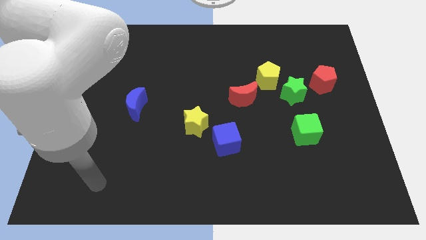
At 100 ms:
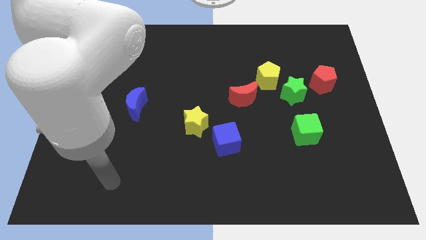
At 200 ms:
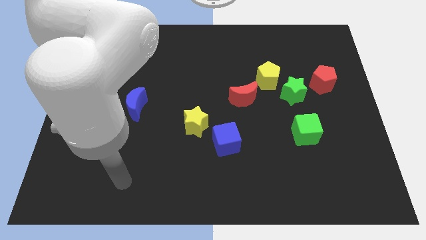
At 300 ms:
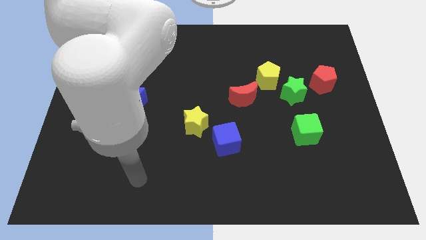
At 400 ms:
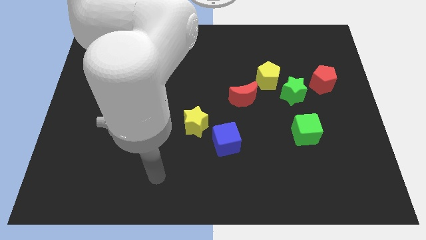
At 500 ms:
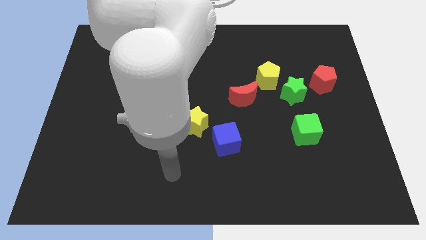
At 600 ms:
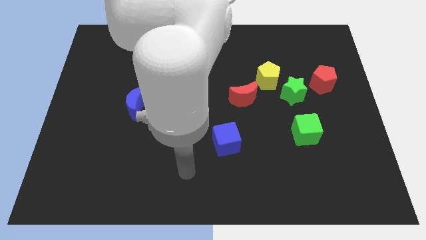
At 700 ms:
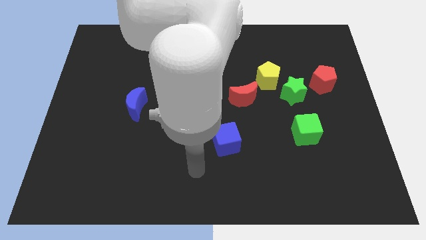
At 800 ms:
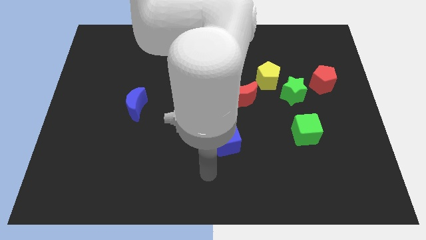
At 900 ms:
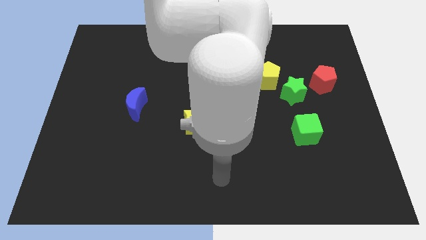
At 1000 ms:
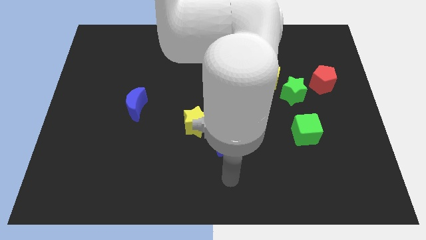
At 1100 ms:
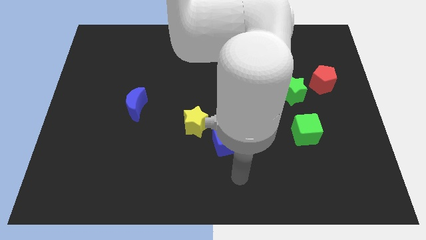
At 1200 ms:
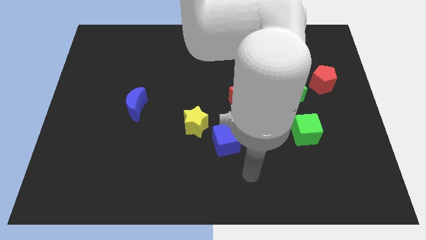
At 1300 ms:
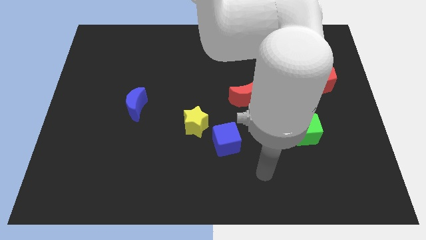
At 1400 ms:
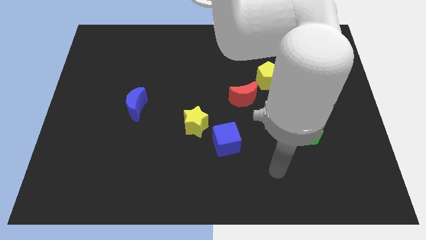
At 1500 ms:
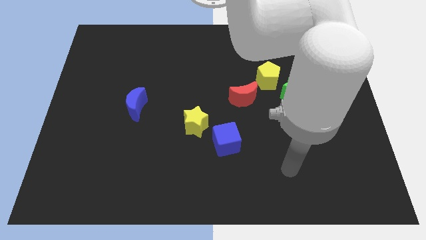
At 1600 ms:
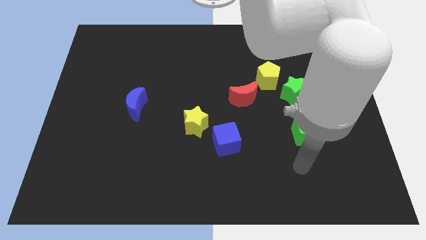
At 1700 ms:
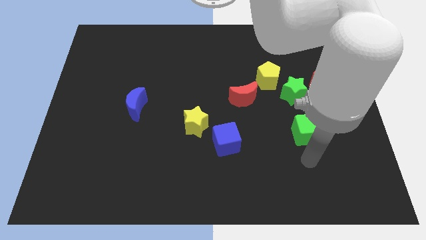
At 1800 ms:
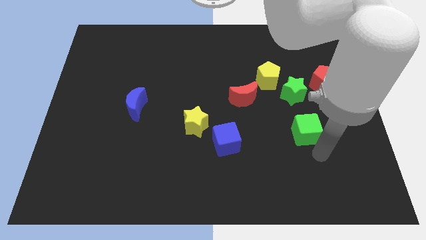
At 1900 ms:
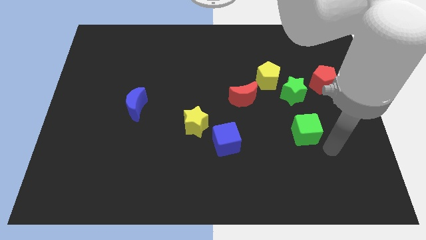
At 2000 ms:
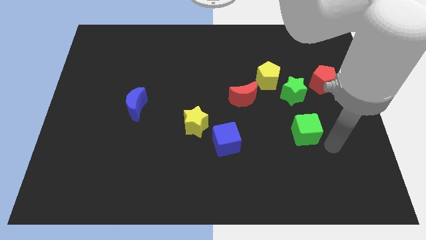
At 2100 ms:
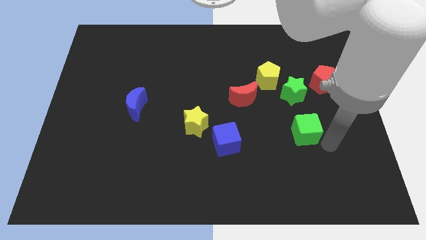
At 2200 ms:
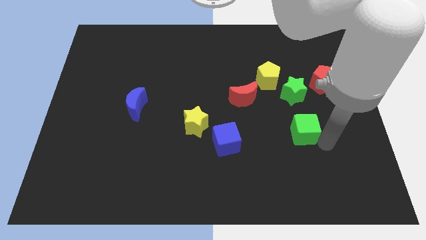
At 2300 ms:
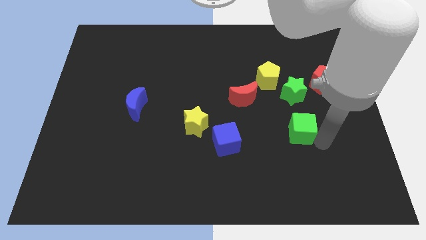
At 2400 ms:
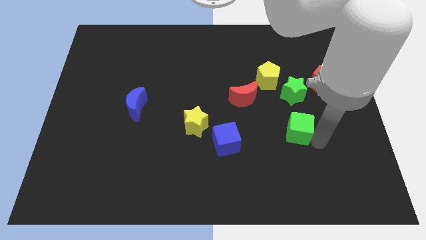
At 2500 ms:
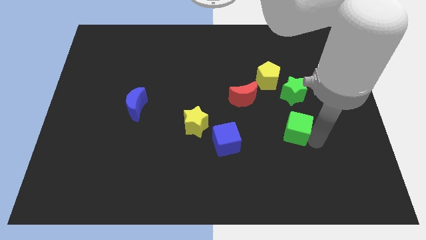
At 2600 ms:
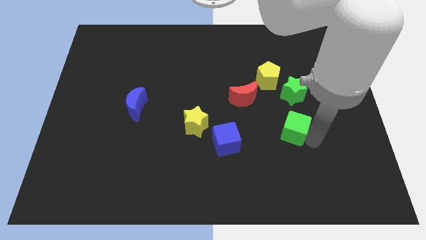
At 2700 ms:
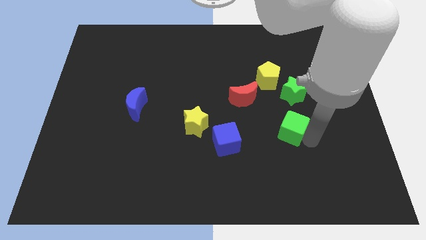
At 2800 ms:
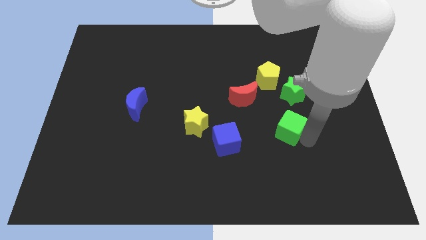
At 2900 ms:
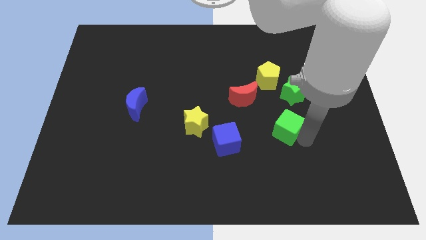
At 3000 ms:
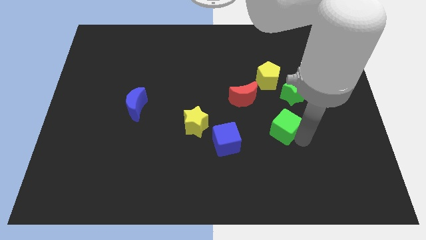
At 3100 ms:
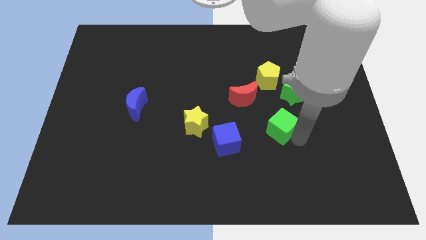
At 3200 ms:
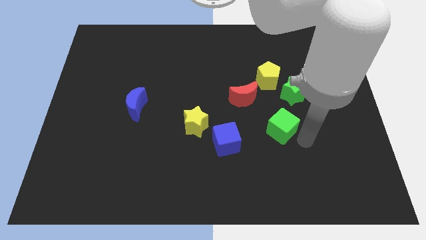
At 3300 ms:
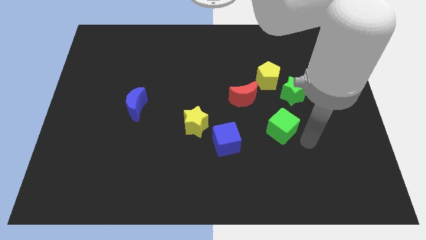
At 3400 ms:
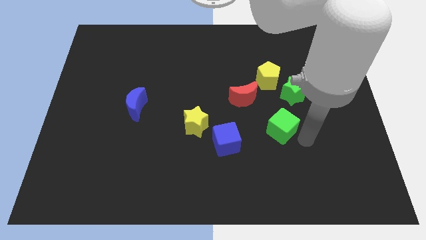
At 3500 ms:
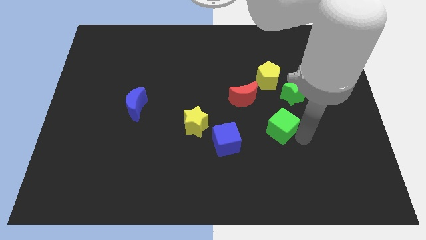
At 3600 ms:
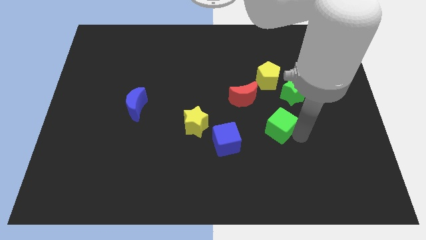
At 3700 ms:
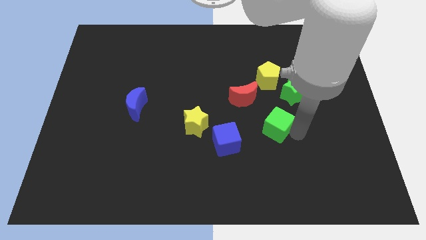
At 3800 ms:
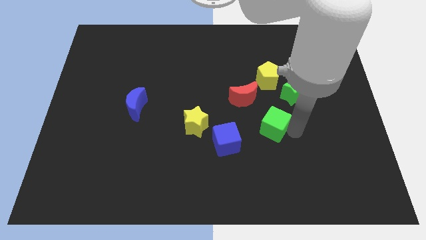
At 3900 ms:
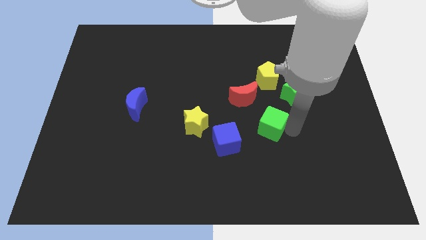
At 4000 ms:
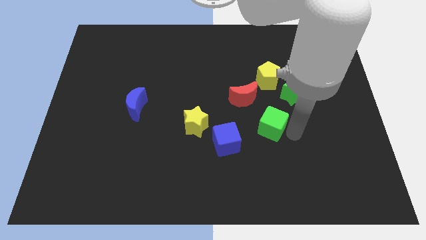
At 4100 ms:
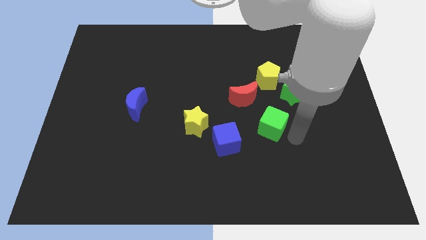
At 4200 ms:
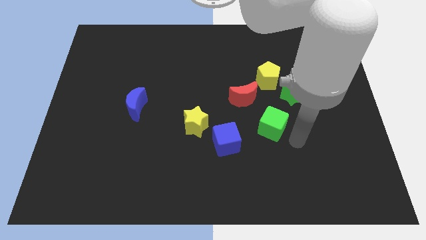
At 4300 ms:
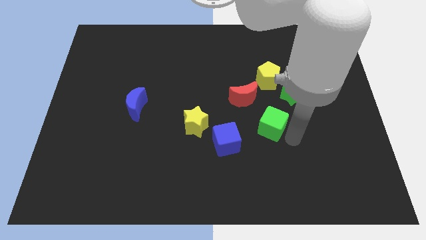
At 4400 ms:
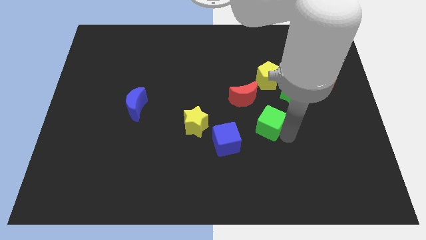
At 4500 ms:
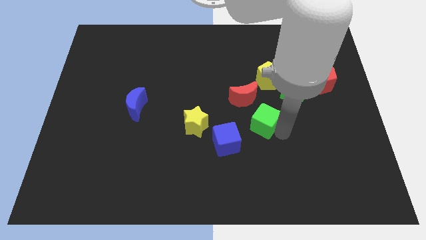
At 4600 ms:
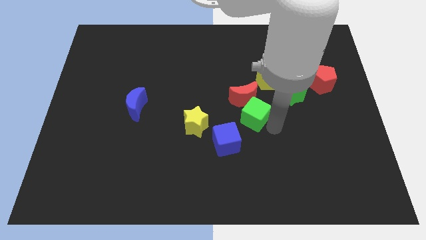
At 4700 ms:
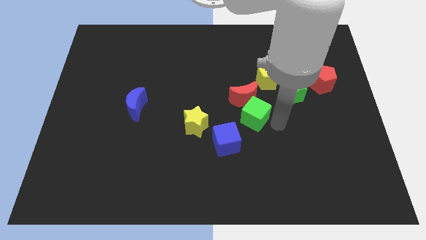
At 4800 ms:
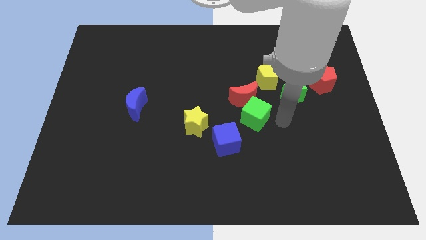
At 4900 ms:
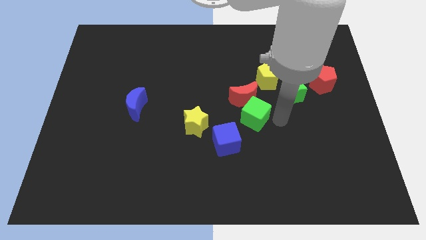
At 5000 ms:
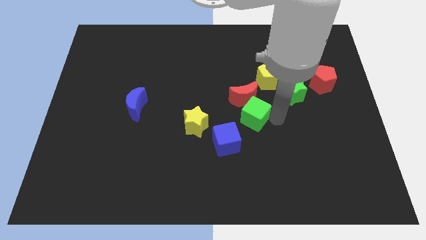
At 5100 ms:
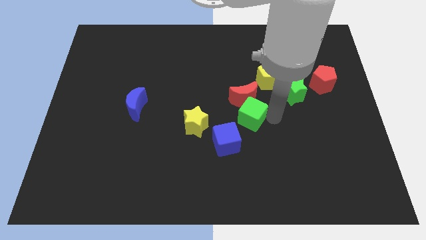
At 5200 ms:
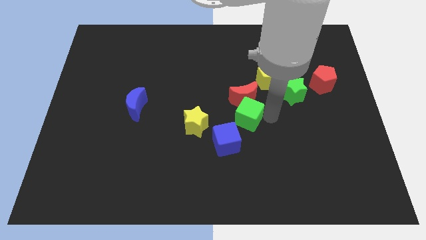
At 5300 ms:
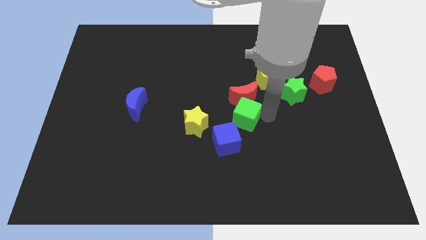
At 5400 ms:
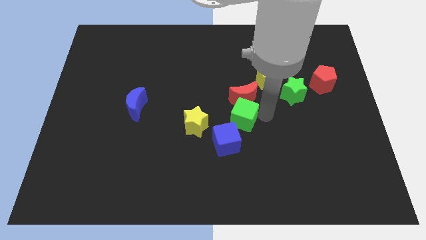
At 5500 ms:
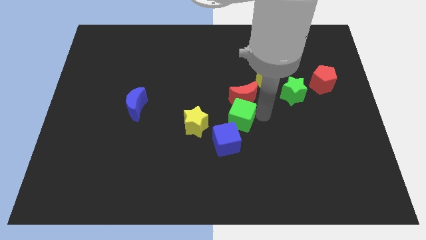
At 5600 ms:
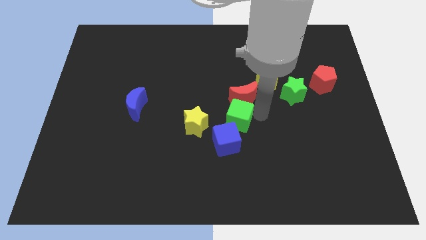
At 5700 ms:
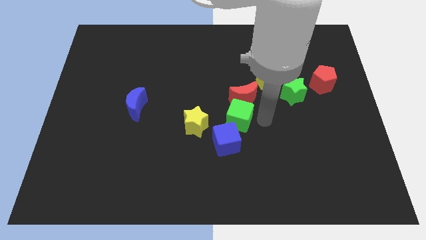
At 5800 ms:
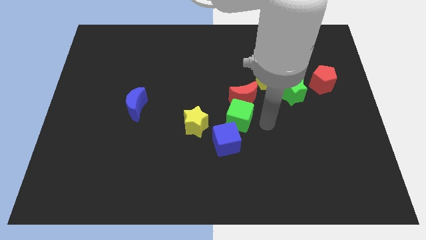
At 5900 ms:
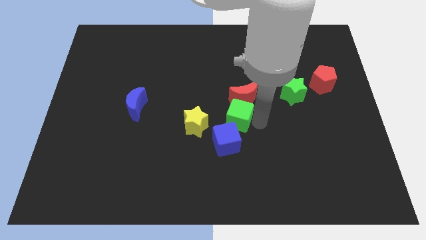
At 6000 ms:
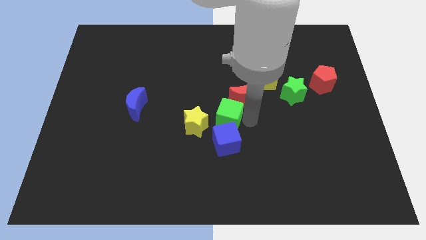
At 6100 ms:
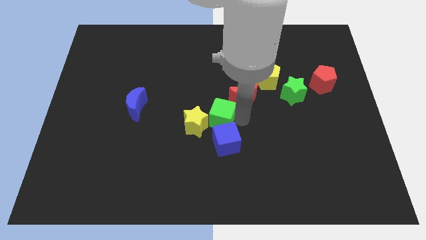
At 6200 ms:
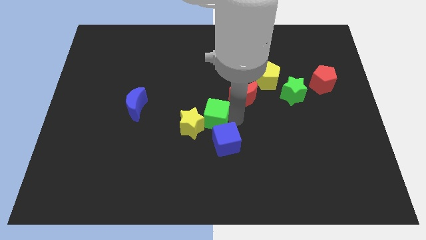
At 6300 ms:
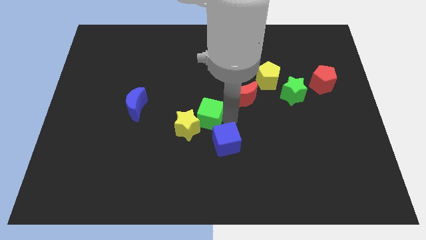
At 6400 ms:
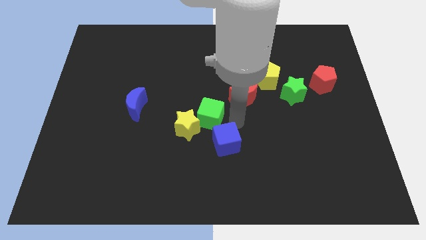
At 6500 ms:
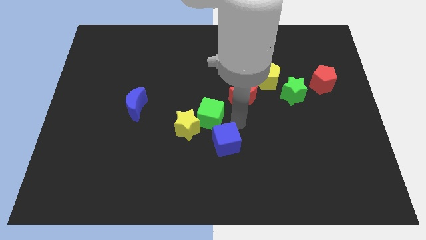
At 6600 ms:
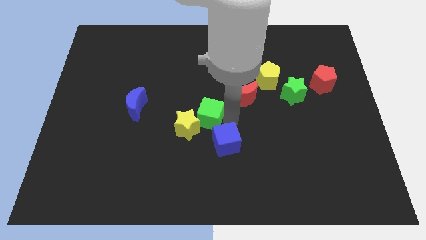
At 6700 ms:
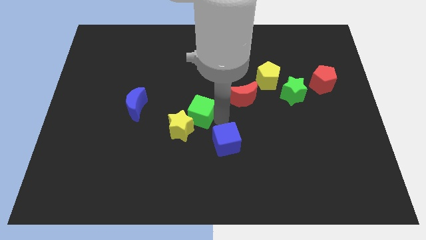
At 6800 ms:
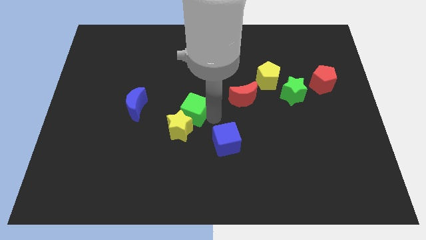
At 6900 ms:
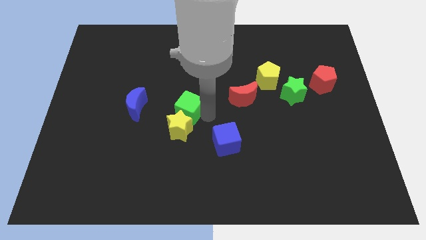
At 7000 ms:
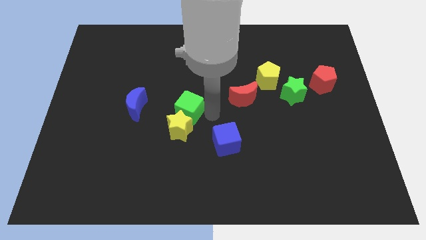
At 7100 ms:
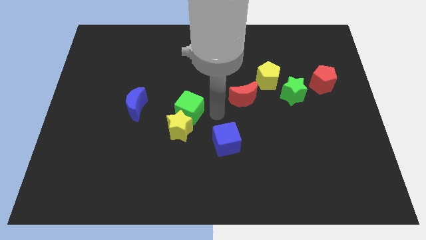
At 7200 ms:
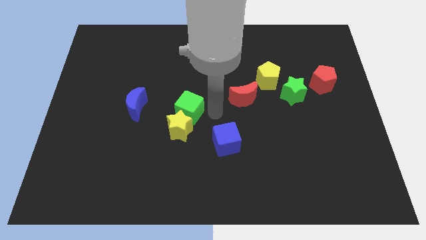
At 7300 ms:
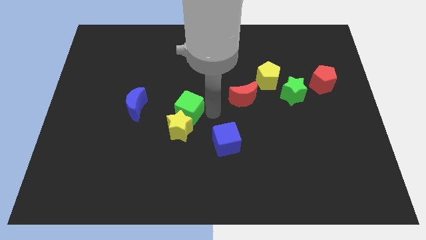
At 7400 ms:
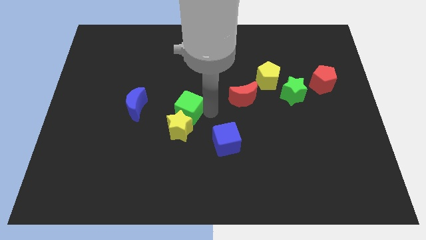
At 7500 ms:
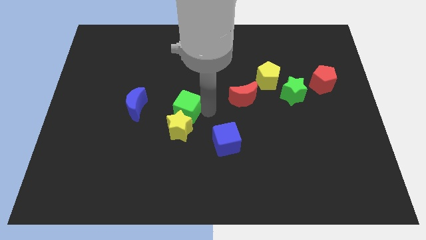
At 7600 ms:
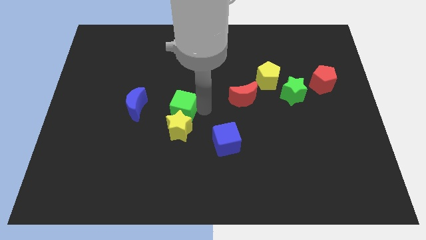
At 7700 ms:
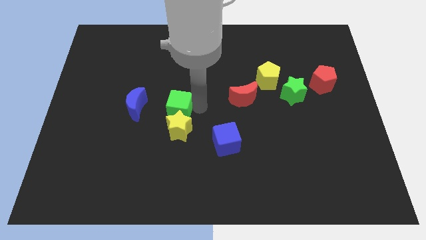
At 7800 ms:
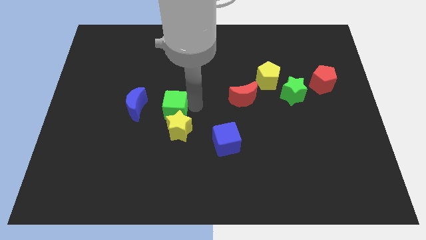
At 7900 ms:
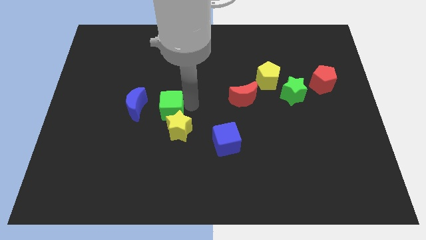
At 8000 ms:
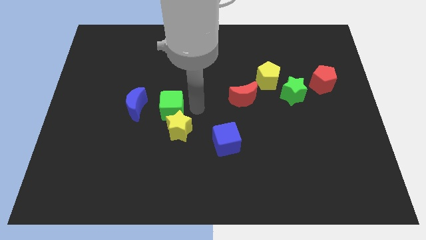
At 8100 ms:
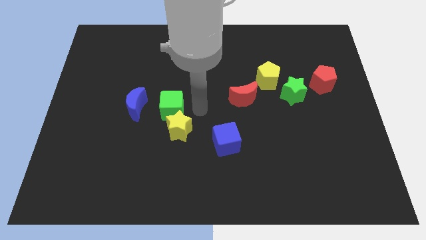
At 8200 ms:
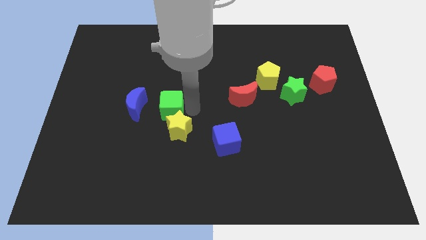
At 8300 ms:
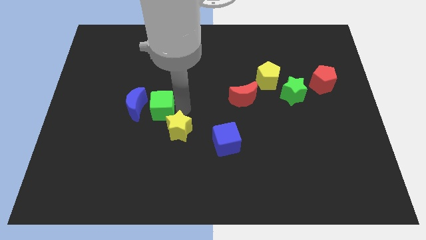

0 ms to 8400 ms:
push the green cube next to the blue moon
